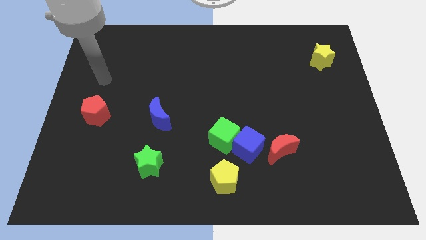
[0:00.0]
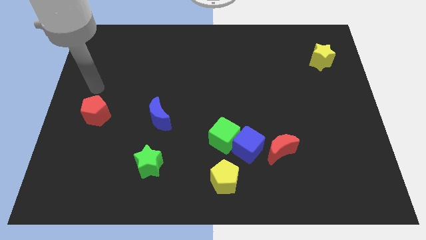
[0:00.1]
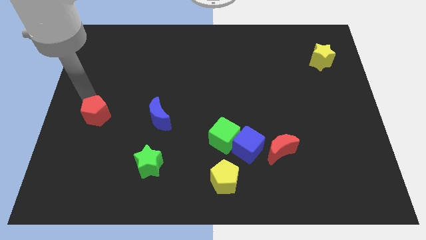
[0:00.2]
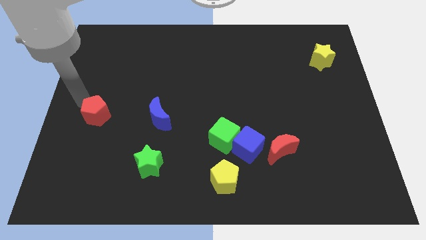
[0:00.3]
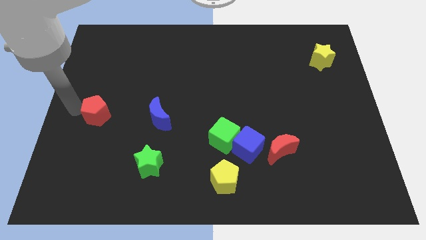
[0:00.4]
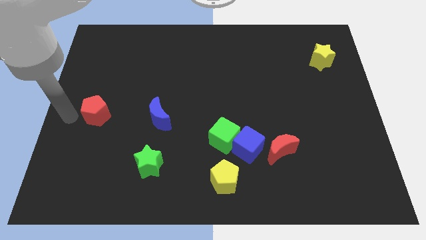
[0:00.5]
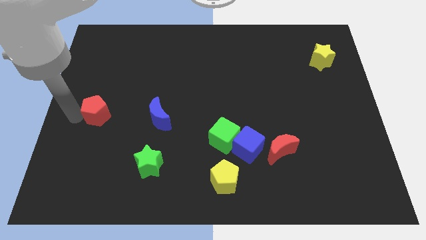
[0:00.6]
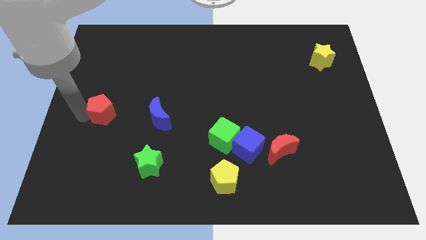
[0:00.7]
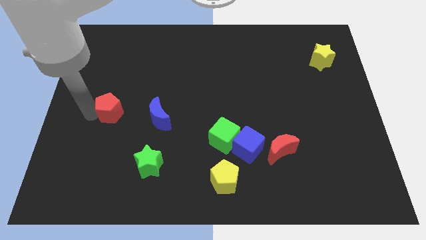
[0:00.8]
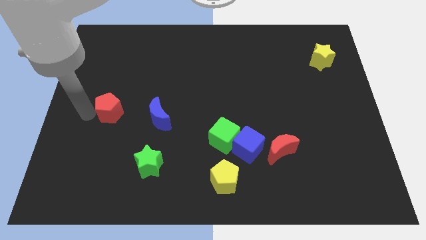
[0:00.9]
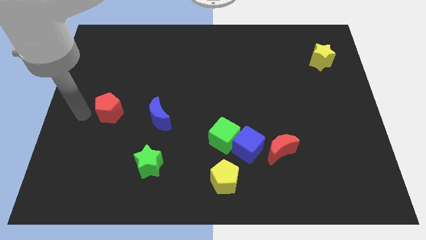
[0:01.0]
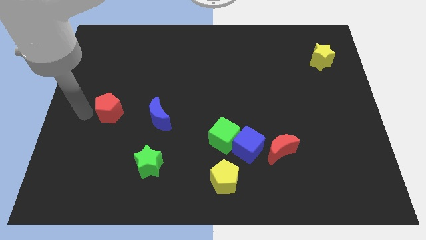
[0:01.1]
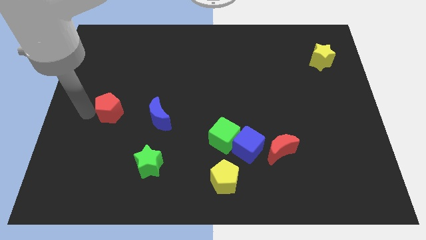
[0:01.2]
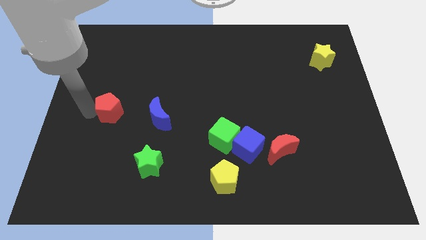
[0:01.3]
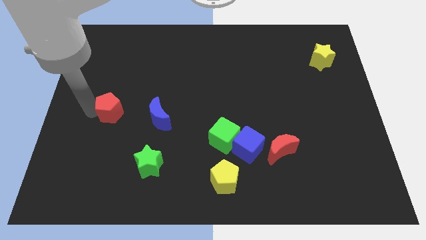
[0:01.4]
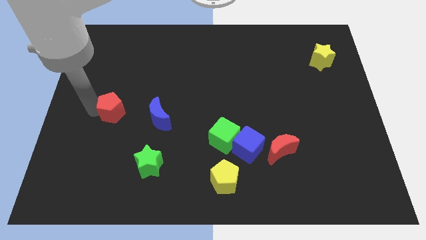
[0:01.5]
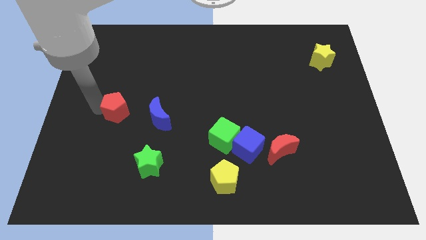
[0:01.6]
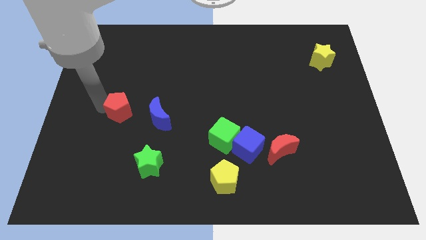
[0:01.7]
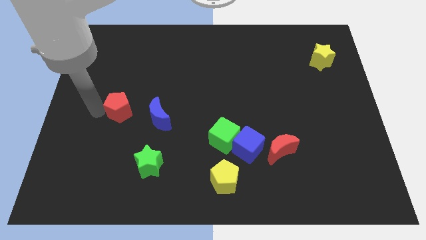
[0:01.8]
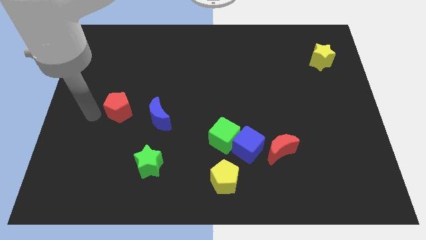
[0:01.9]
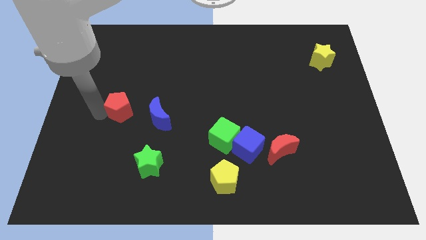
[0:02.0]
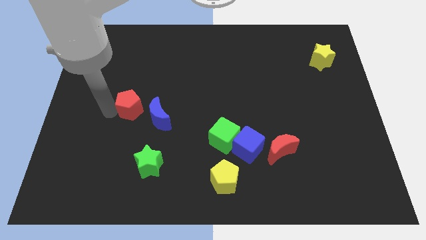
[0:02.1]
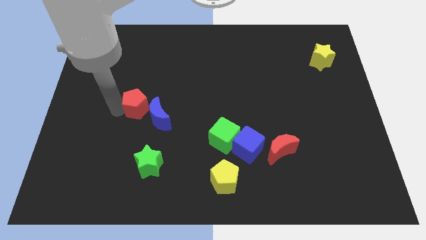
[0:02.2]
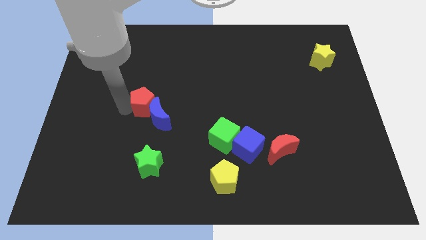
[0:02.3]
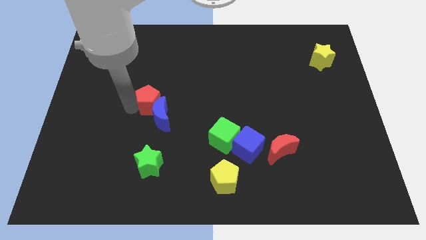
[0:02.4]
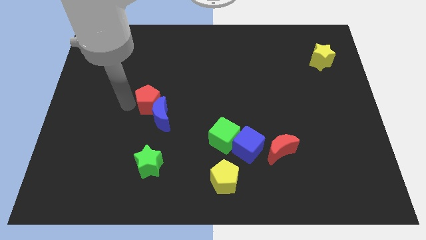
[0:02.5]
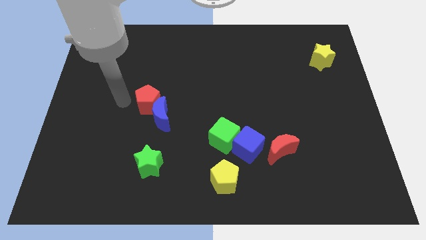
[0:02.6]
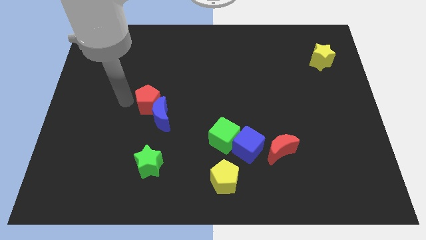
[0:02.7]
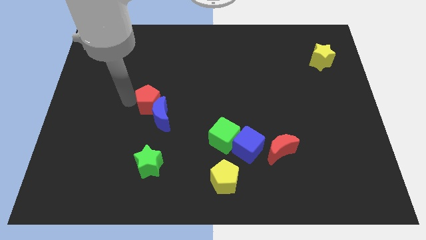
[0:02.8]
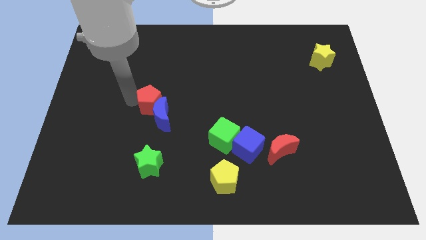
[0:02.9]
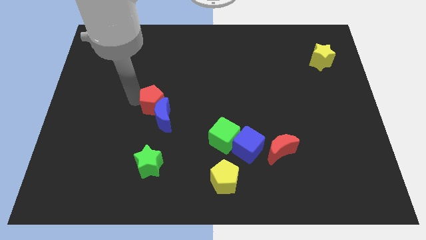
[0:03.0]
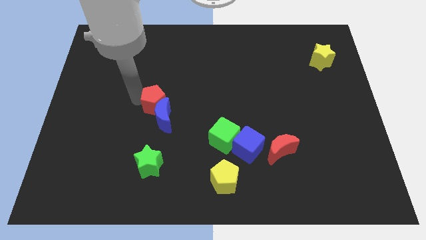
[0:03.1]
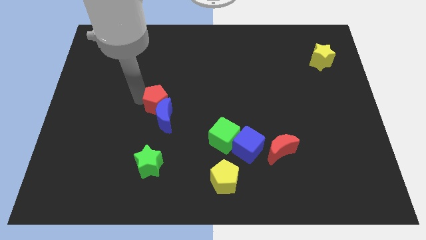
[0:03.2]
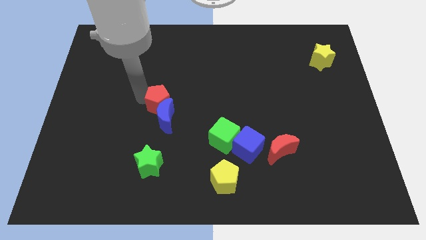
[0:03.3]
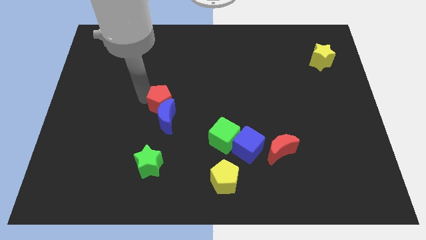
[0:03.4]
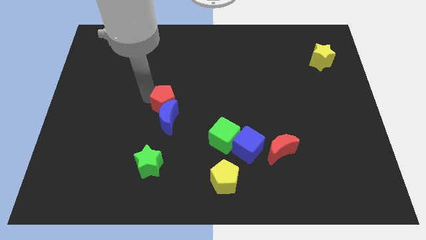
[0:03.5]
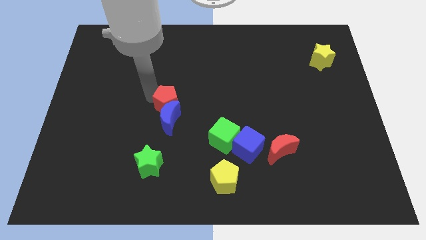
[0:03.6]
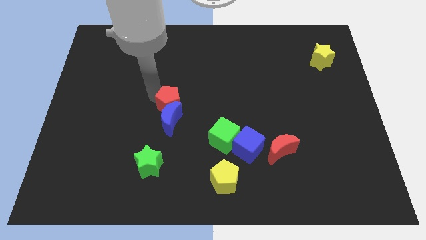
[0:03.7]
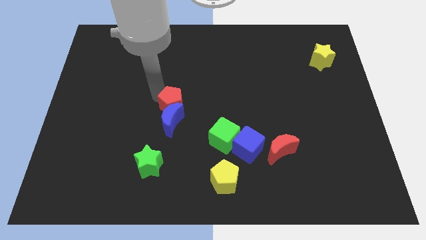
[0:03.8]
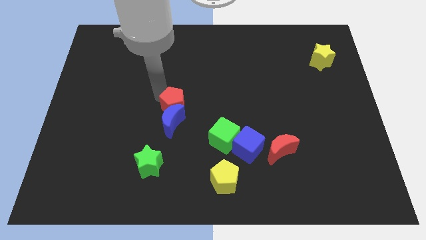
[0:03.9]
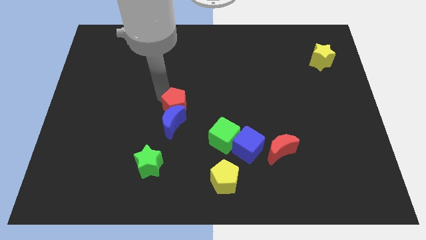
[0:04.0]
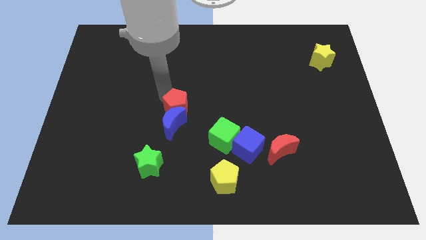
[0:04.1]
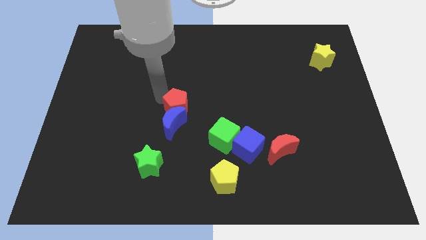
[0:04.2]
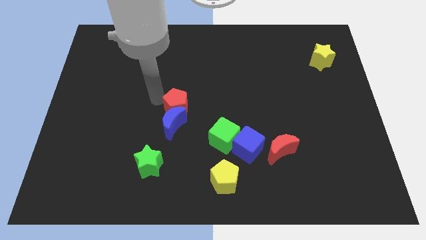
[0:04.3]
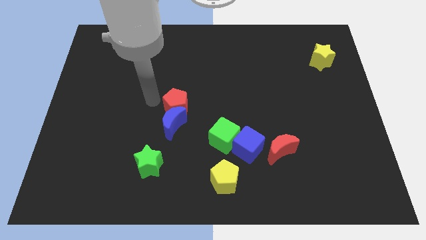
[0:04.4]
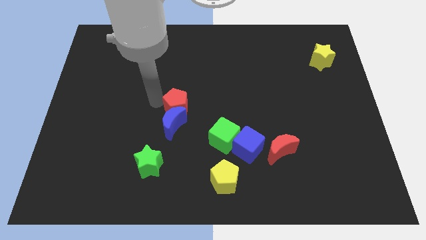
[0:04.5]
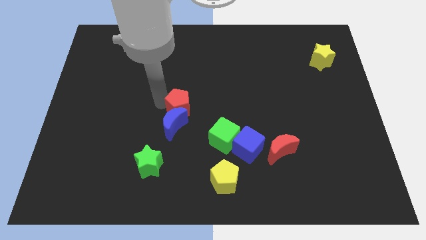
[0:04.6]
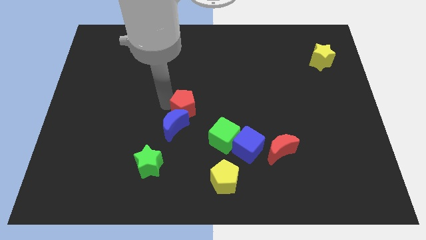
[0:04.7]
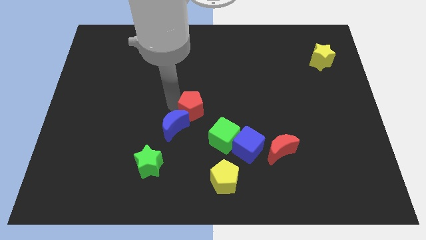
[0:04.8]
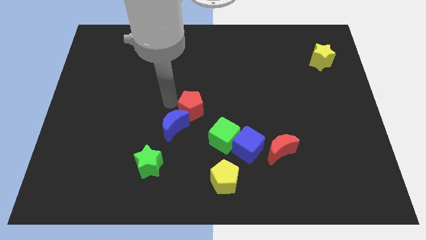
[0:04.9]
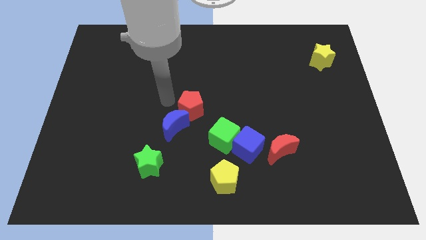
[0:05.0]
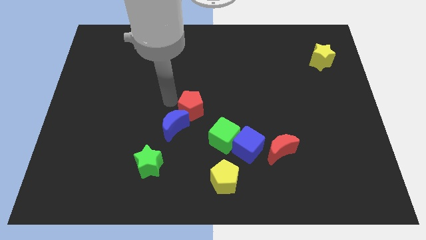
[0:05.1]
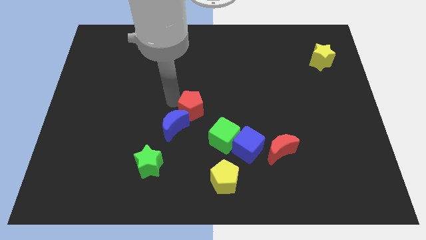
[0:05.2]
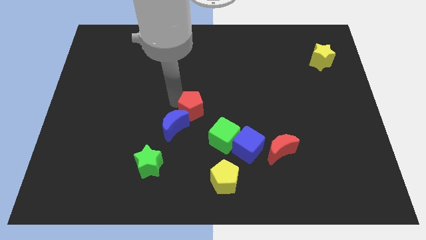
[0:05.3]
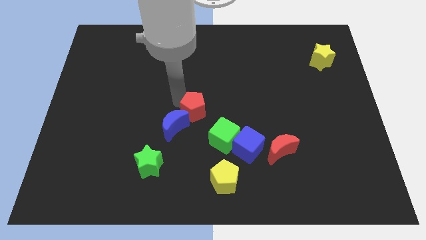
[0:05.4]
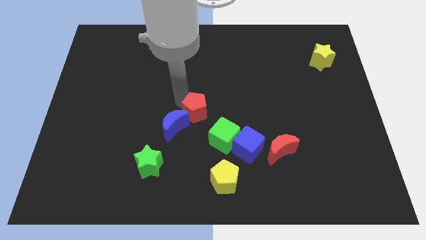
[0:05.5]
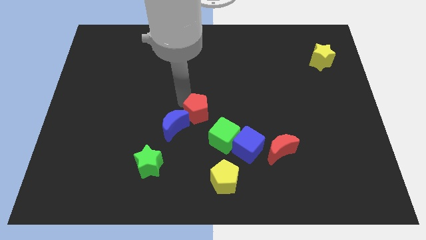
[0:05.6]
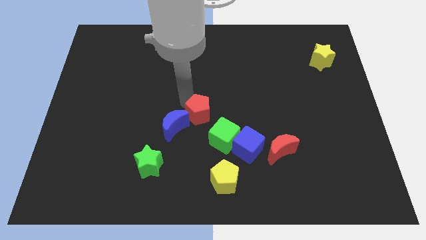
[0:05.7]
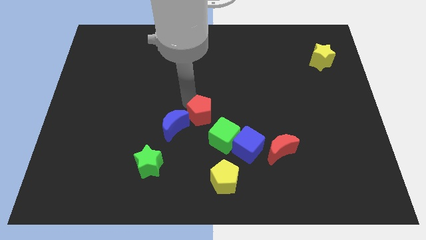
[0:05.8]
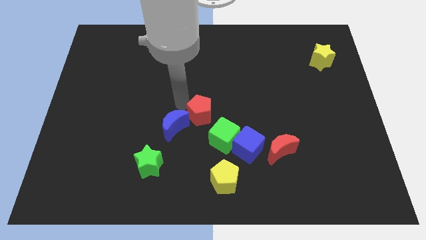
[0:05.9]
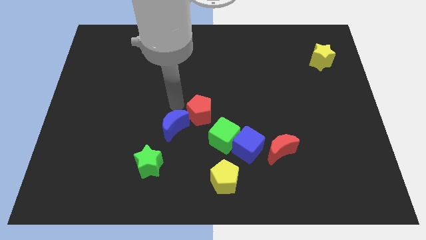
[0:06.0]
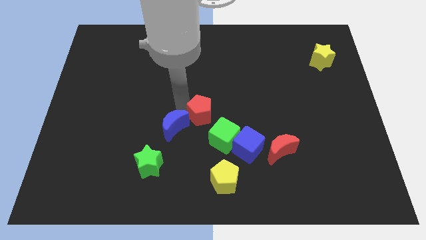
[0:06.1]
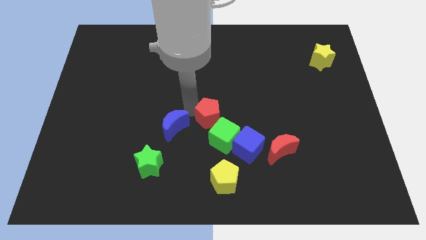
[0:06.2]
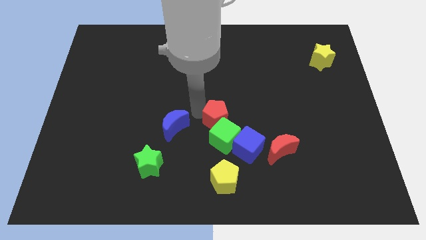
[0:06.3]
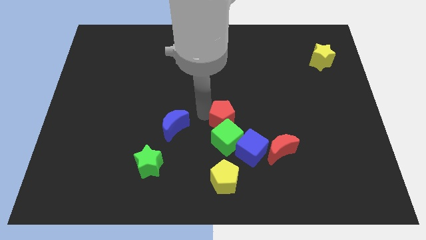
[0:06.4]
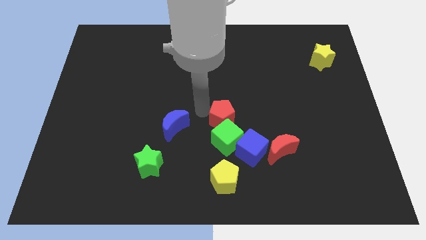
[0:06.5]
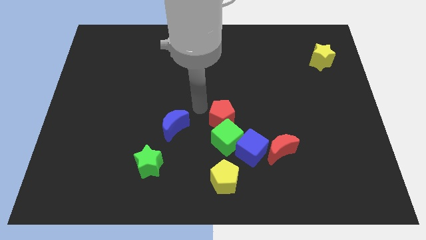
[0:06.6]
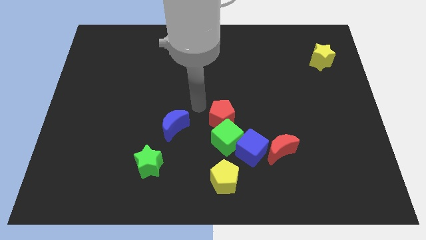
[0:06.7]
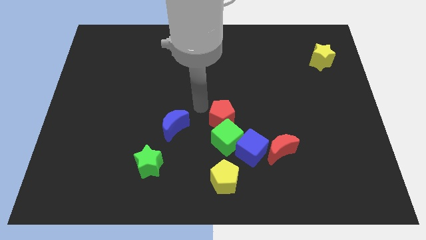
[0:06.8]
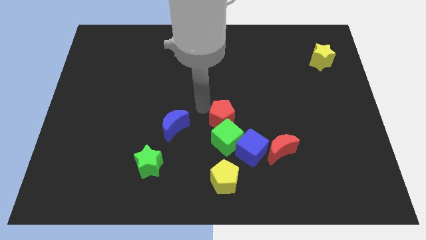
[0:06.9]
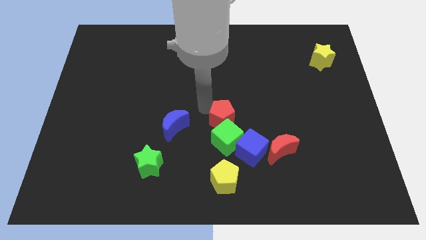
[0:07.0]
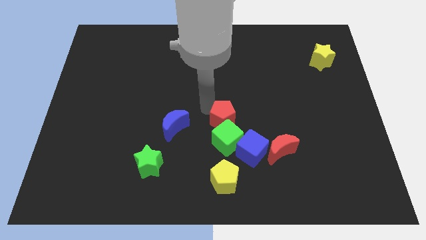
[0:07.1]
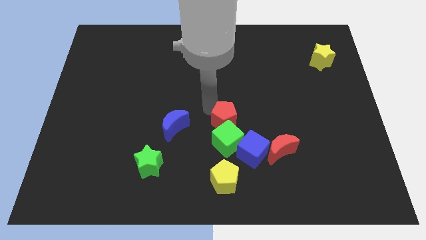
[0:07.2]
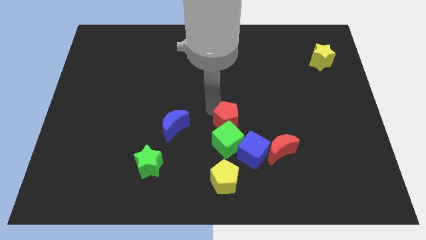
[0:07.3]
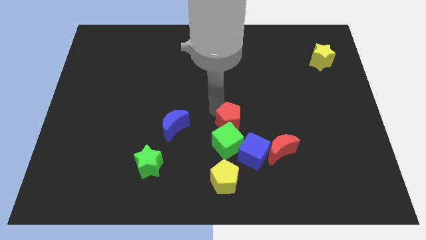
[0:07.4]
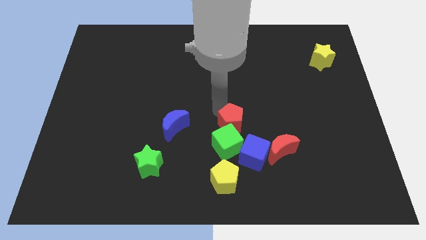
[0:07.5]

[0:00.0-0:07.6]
slide the red pentagon to the top left of the red moon
